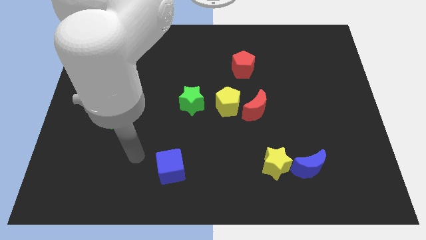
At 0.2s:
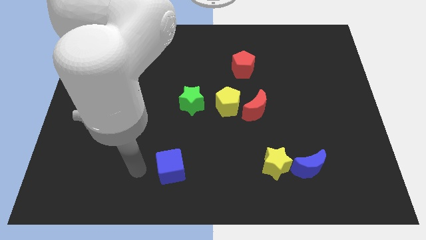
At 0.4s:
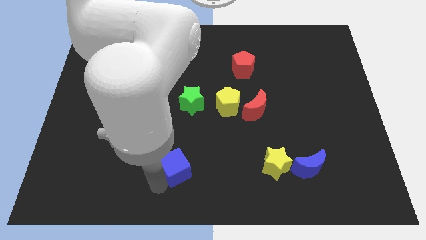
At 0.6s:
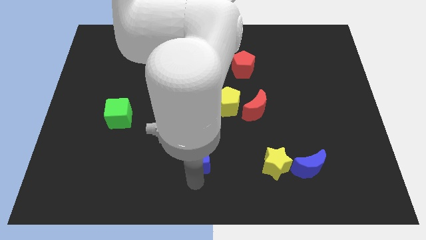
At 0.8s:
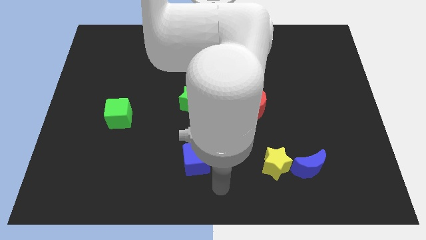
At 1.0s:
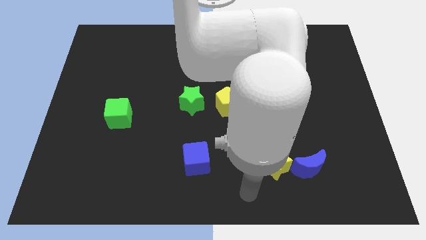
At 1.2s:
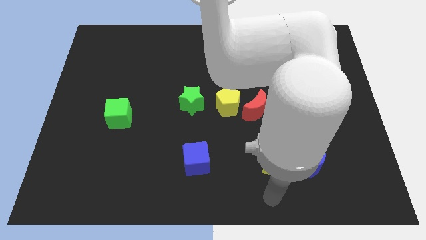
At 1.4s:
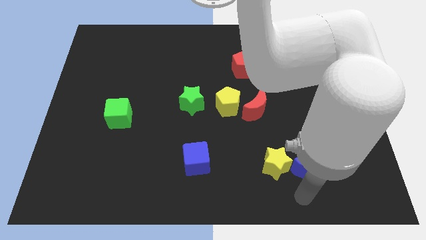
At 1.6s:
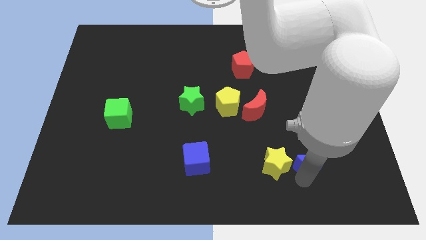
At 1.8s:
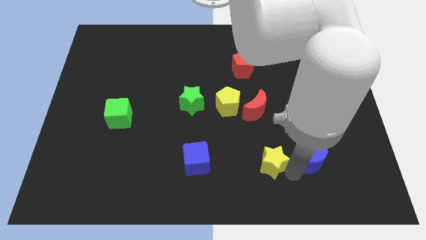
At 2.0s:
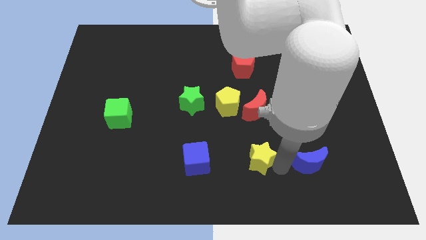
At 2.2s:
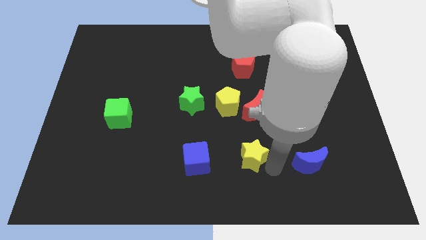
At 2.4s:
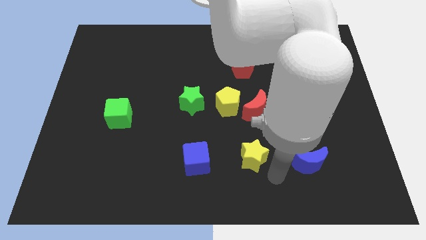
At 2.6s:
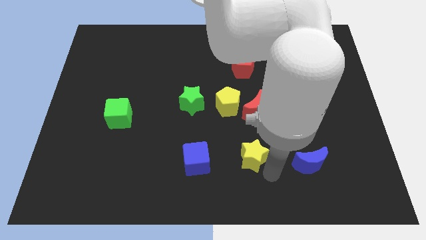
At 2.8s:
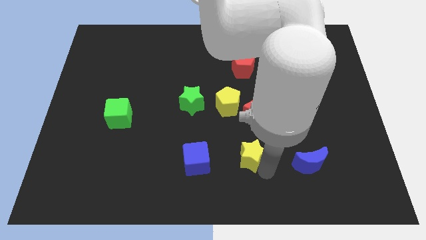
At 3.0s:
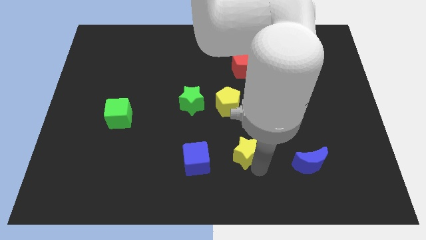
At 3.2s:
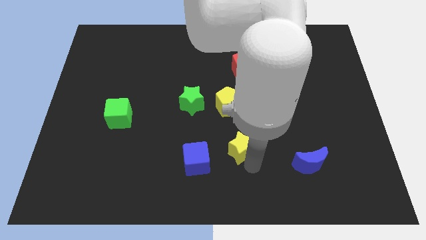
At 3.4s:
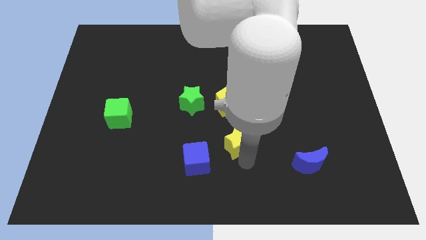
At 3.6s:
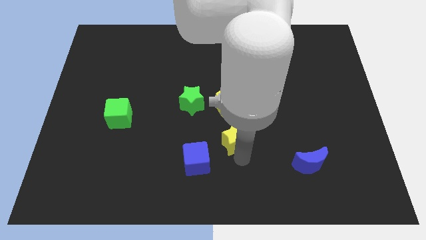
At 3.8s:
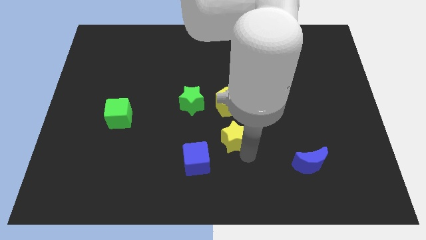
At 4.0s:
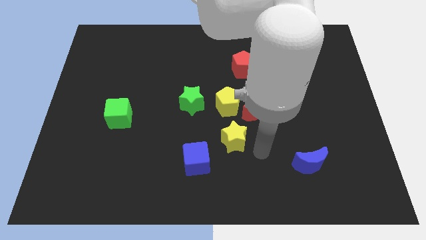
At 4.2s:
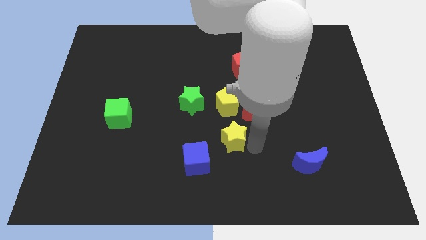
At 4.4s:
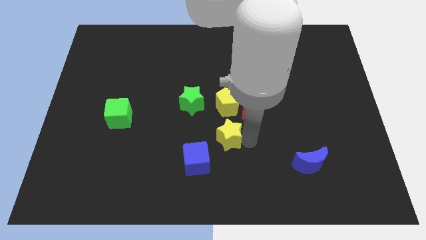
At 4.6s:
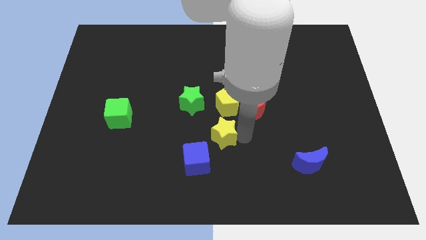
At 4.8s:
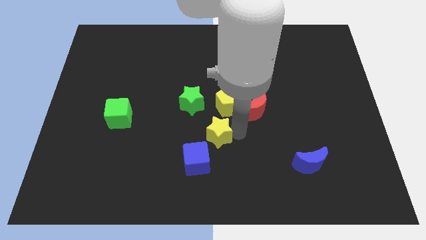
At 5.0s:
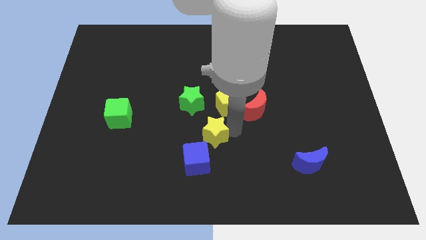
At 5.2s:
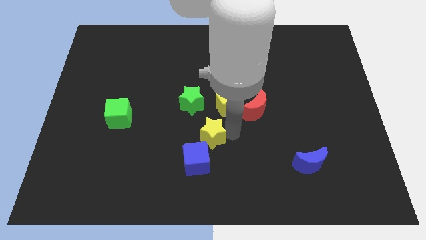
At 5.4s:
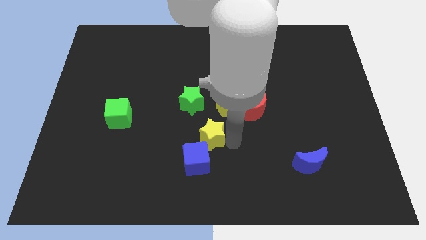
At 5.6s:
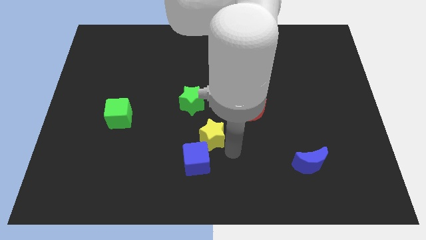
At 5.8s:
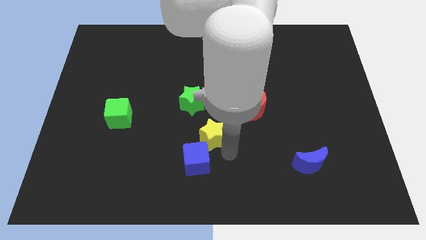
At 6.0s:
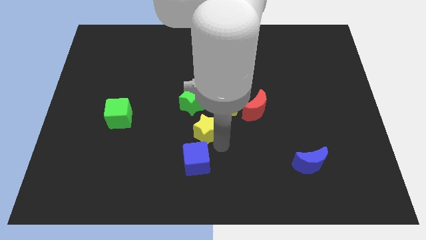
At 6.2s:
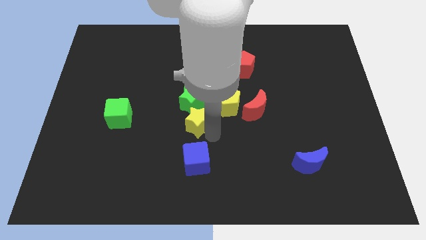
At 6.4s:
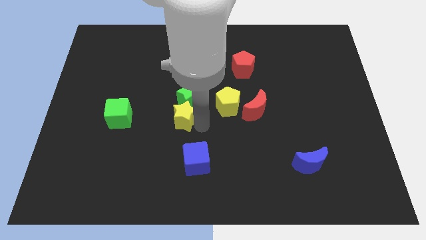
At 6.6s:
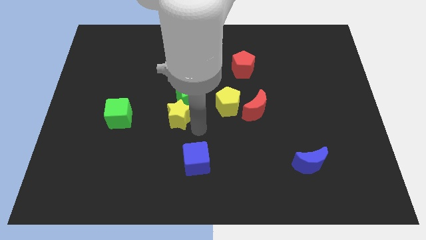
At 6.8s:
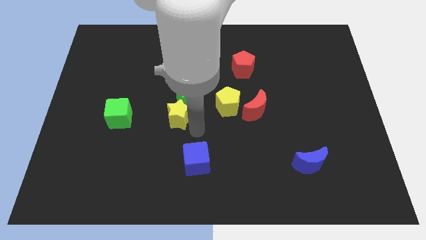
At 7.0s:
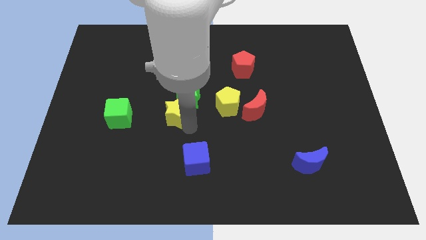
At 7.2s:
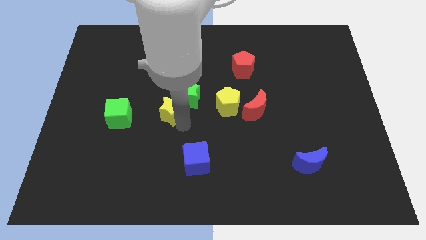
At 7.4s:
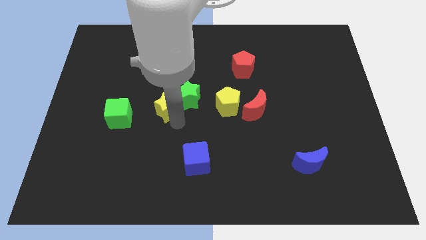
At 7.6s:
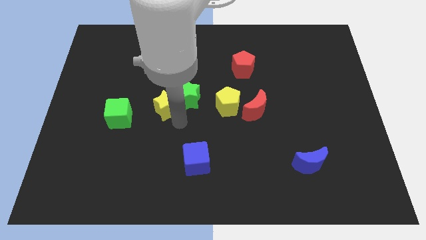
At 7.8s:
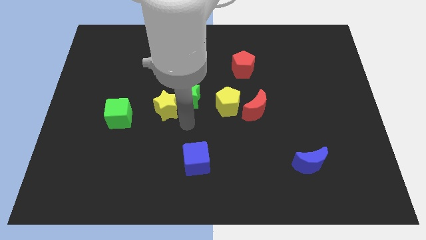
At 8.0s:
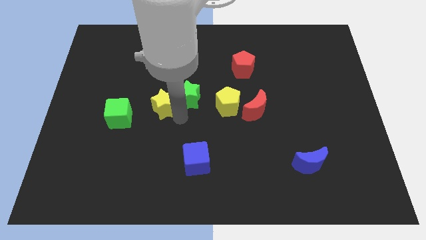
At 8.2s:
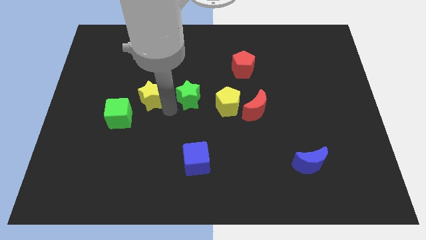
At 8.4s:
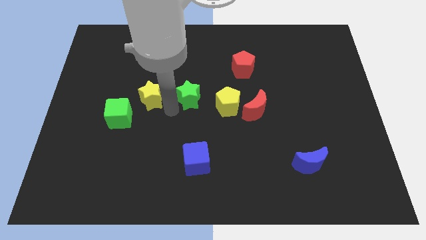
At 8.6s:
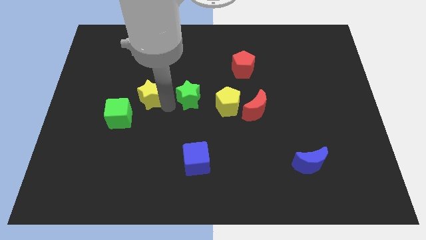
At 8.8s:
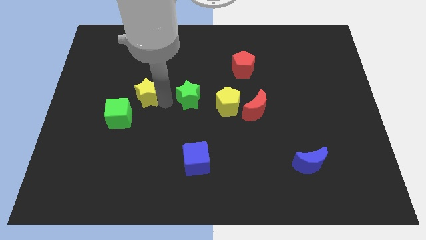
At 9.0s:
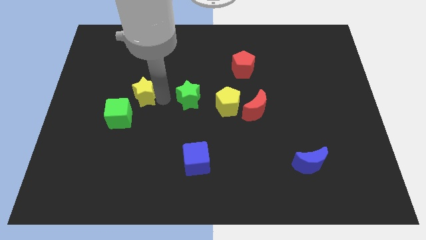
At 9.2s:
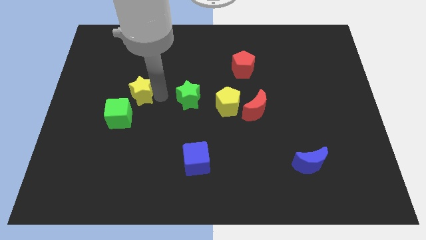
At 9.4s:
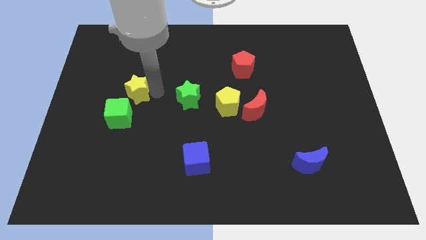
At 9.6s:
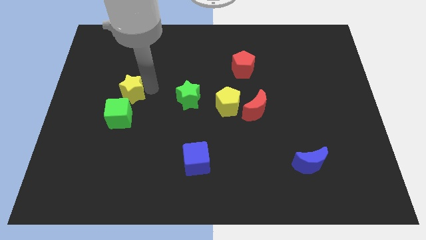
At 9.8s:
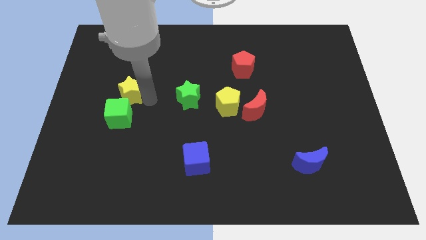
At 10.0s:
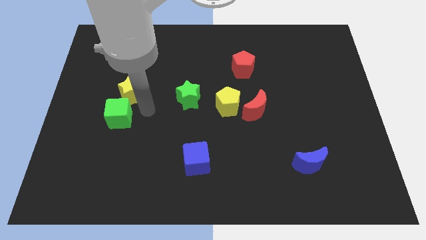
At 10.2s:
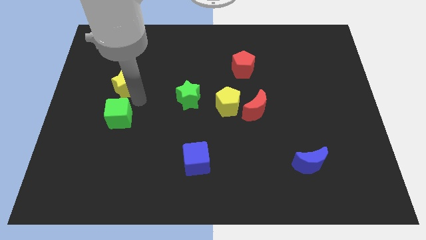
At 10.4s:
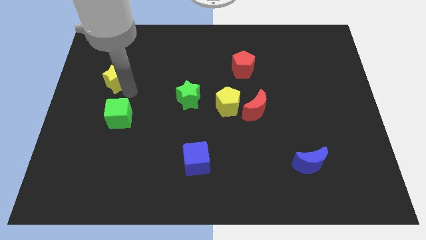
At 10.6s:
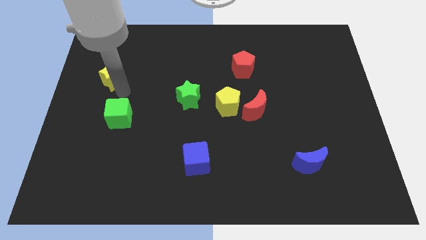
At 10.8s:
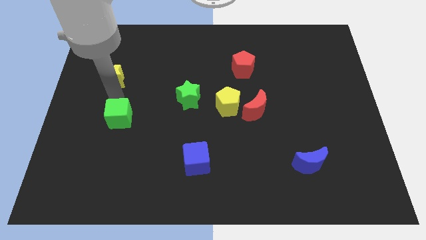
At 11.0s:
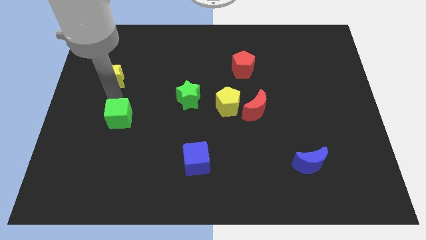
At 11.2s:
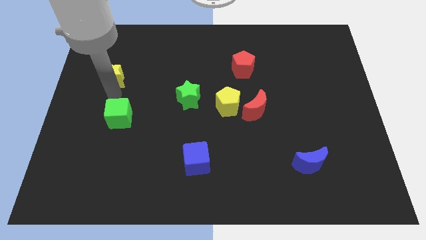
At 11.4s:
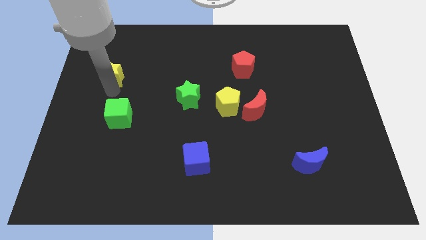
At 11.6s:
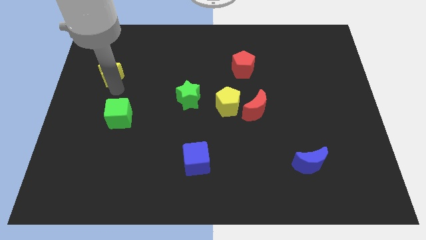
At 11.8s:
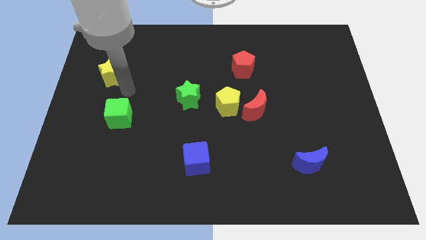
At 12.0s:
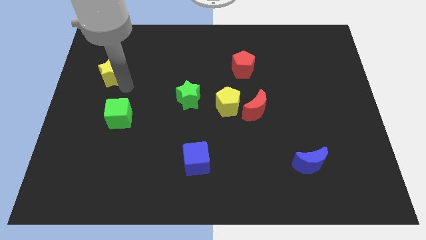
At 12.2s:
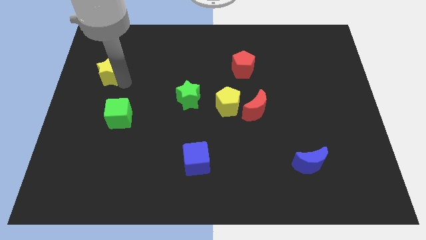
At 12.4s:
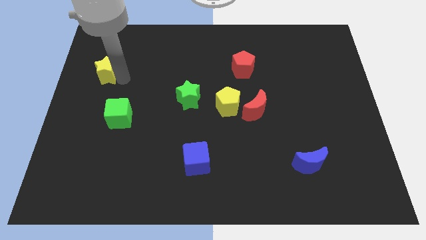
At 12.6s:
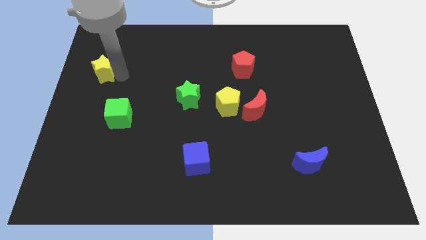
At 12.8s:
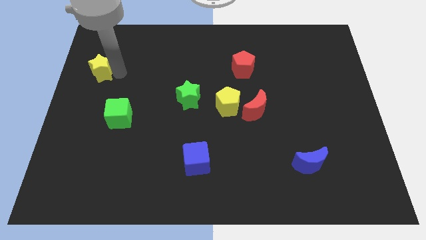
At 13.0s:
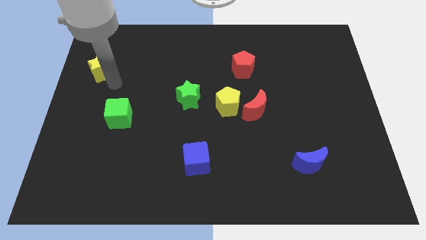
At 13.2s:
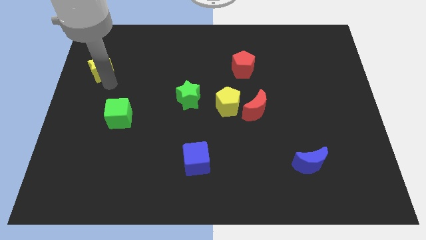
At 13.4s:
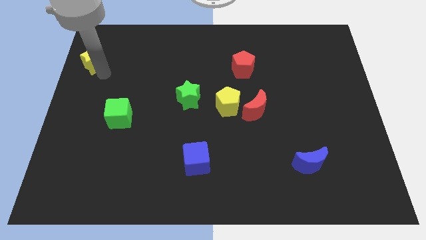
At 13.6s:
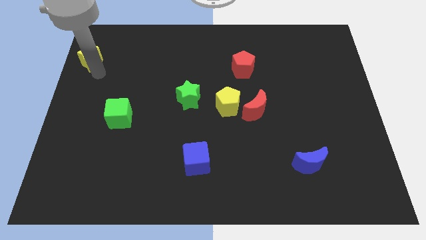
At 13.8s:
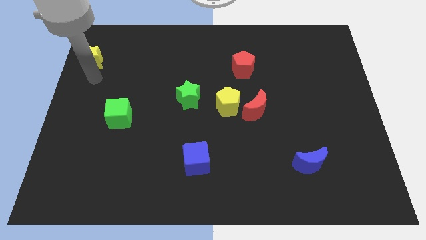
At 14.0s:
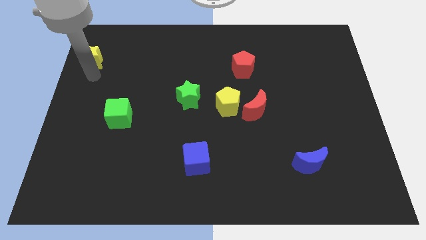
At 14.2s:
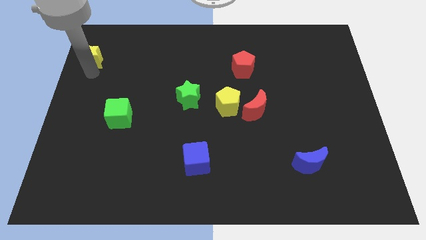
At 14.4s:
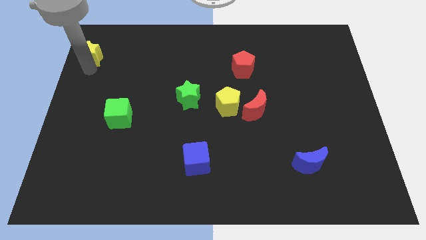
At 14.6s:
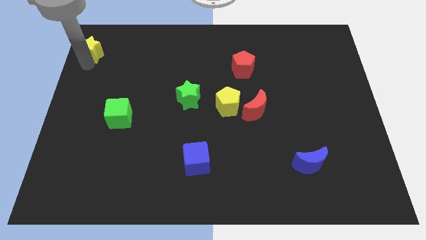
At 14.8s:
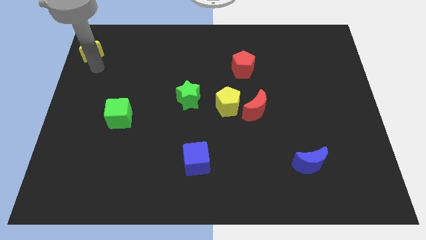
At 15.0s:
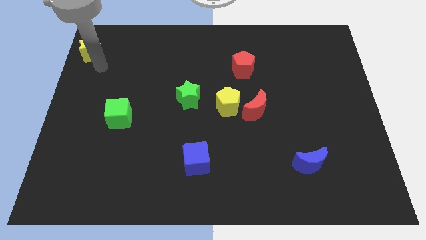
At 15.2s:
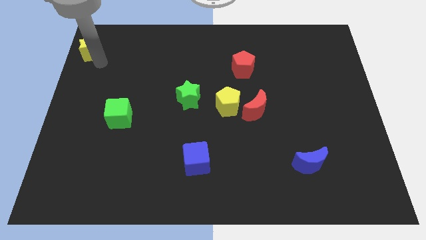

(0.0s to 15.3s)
move the yellow star to the top left

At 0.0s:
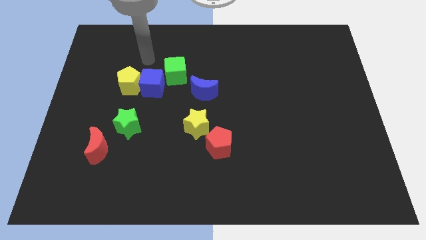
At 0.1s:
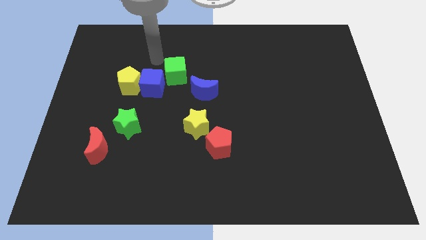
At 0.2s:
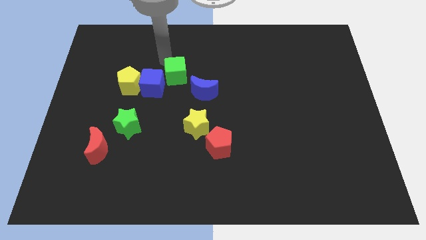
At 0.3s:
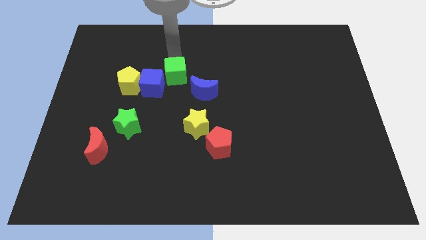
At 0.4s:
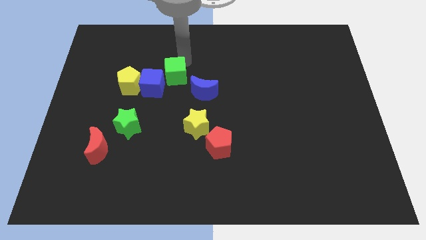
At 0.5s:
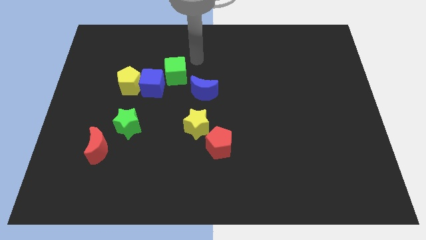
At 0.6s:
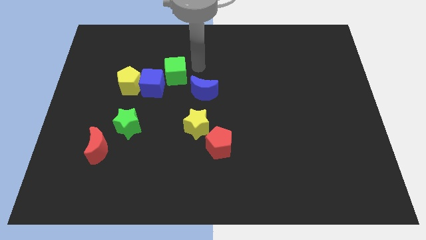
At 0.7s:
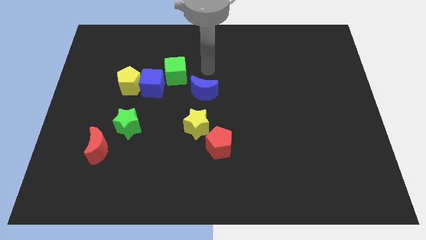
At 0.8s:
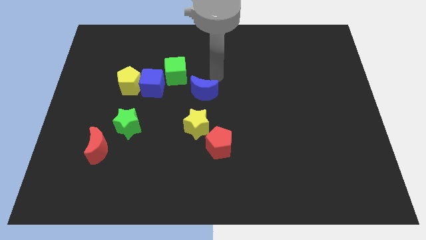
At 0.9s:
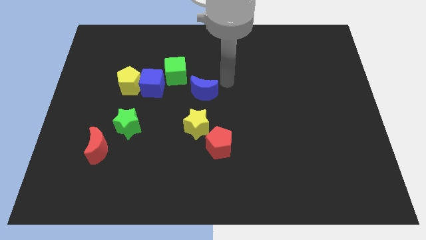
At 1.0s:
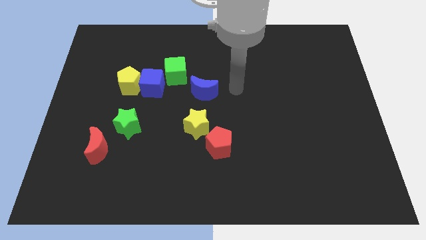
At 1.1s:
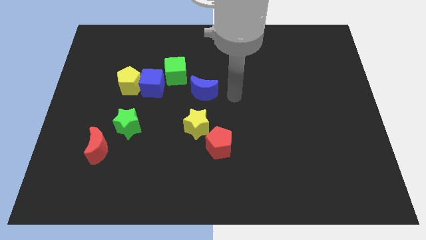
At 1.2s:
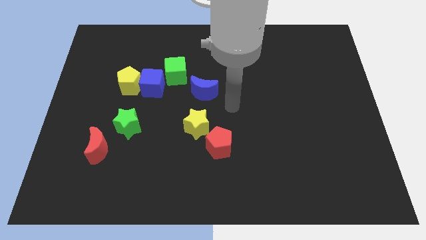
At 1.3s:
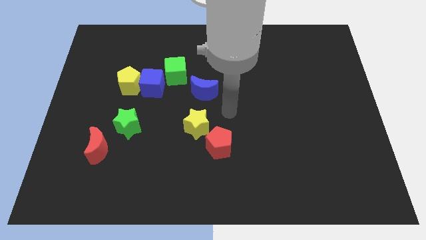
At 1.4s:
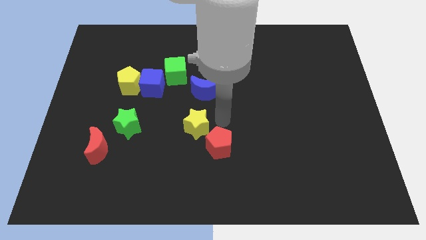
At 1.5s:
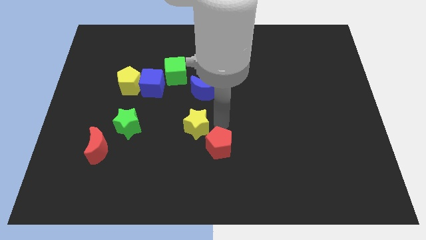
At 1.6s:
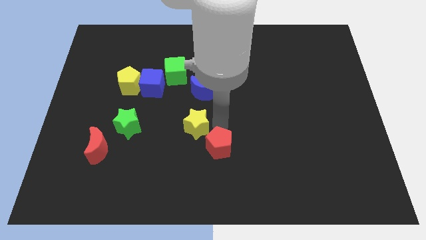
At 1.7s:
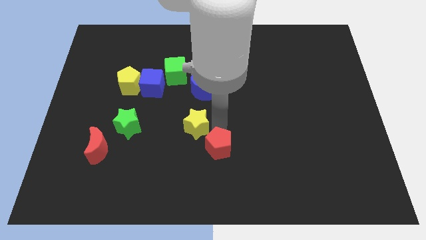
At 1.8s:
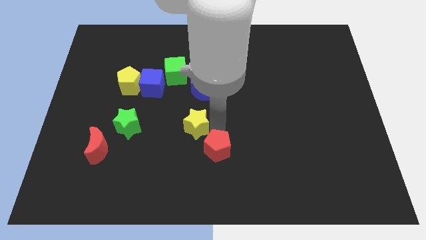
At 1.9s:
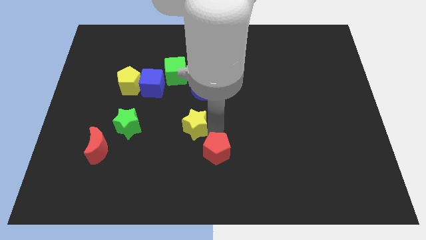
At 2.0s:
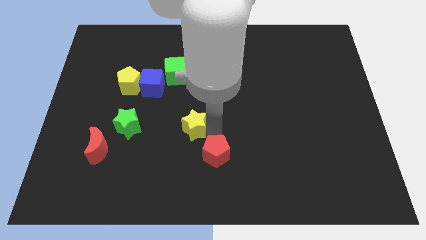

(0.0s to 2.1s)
put the red pentagon to the bottom
